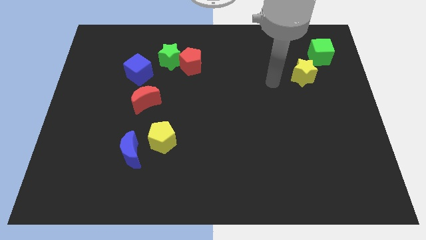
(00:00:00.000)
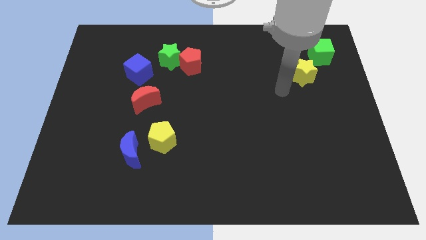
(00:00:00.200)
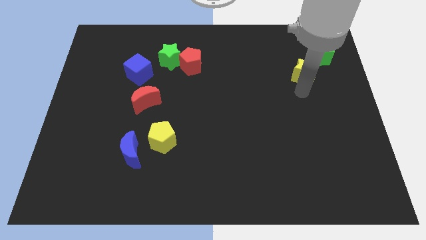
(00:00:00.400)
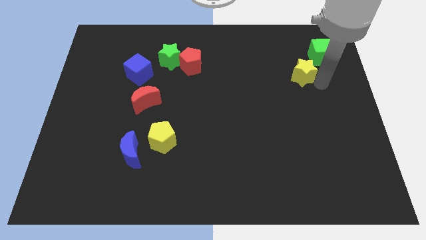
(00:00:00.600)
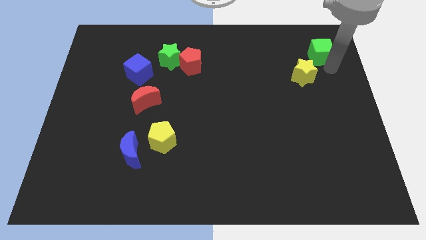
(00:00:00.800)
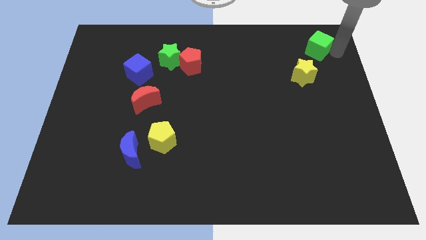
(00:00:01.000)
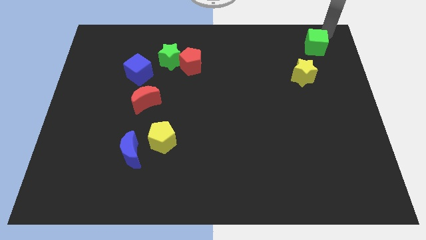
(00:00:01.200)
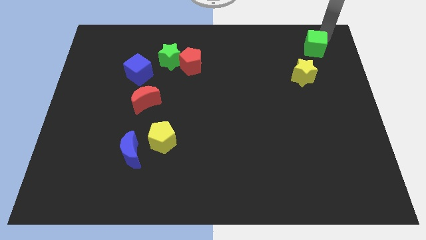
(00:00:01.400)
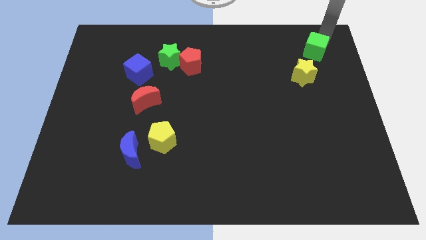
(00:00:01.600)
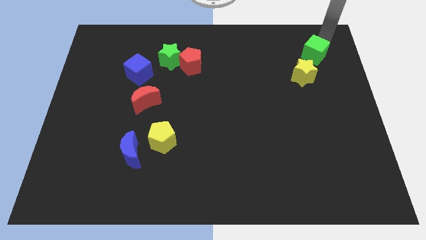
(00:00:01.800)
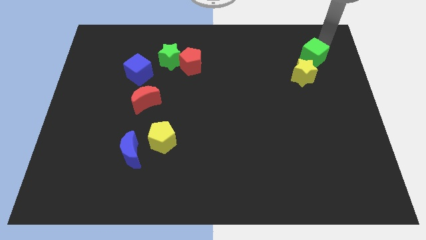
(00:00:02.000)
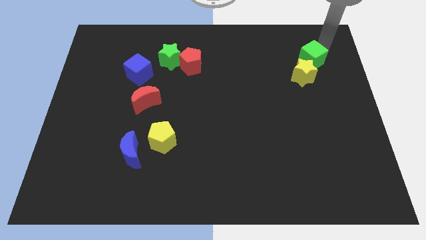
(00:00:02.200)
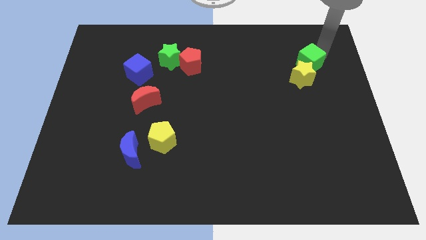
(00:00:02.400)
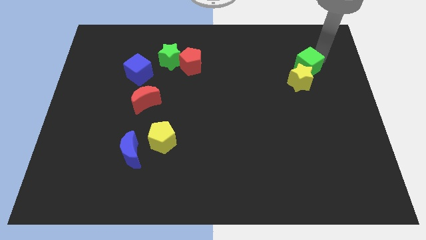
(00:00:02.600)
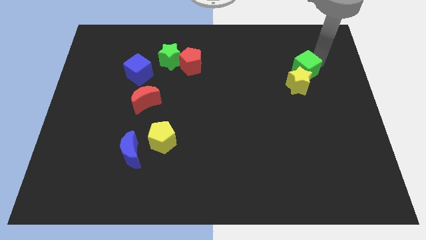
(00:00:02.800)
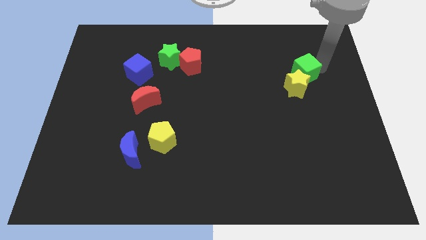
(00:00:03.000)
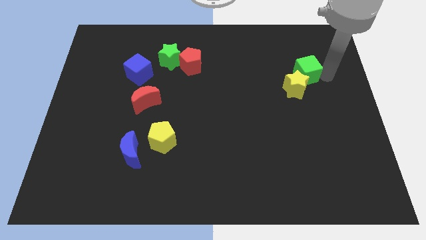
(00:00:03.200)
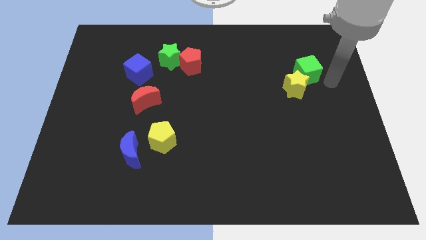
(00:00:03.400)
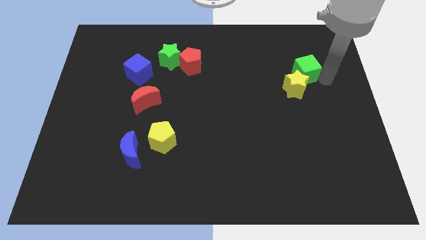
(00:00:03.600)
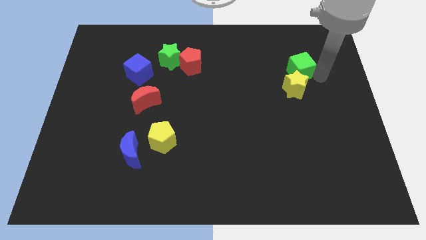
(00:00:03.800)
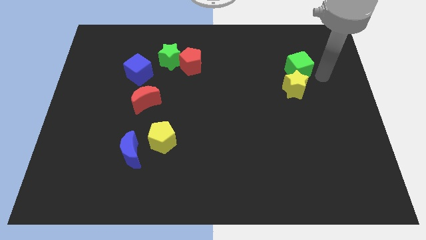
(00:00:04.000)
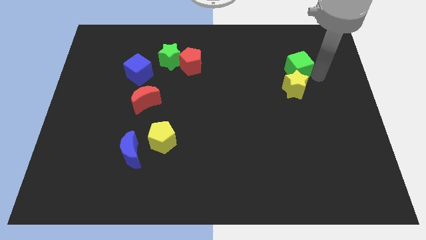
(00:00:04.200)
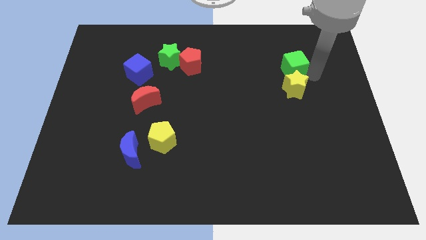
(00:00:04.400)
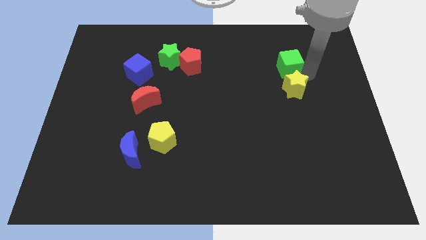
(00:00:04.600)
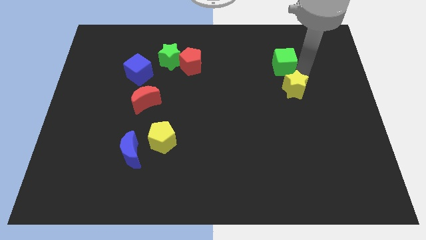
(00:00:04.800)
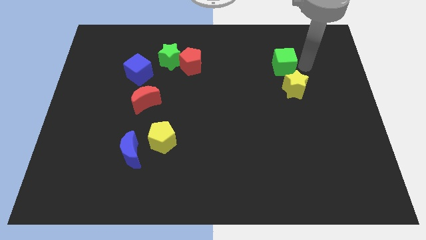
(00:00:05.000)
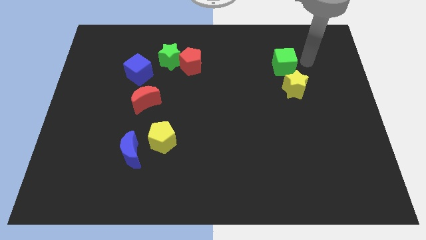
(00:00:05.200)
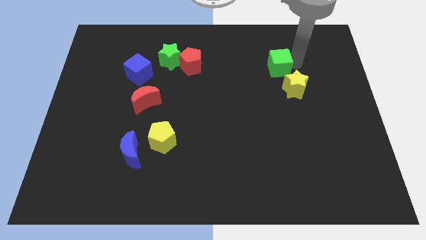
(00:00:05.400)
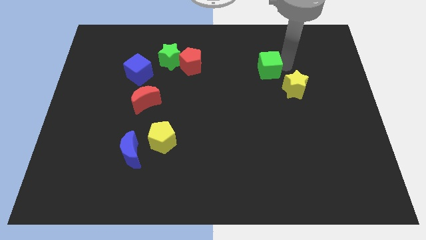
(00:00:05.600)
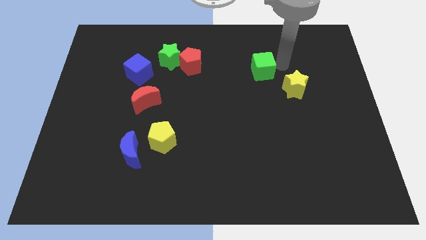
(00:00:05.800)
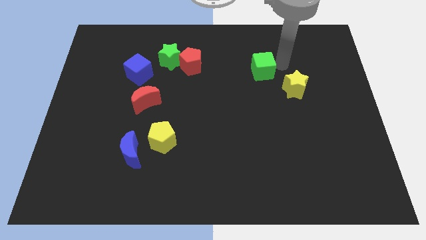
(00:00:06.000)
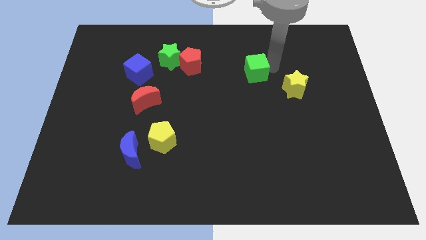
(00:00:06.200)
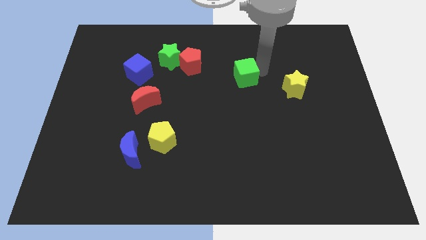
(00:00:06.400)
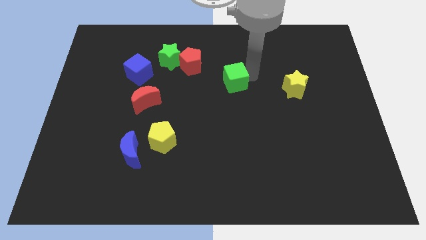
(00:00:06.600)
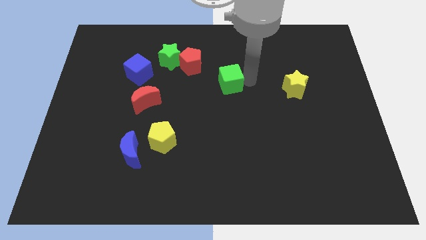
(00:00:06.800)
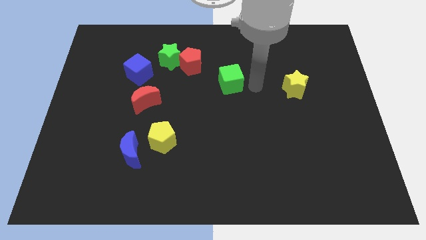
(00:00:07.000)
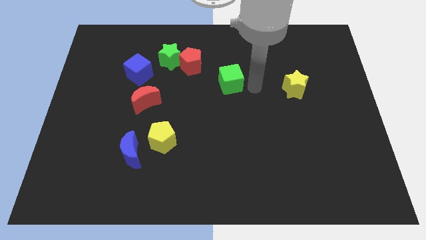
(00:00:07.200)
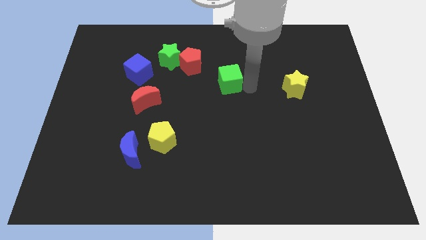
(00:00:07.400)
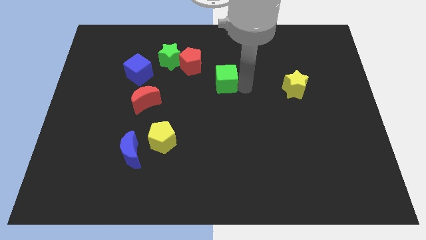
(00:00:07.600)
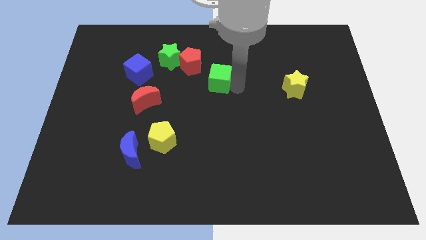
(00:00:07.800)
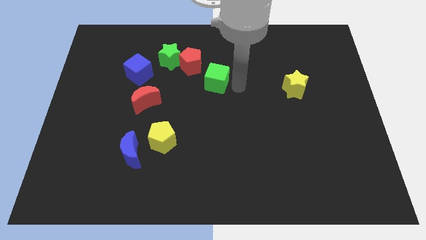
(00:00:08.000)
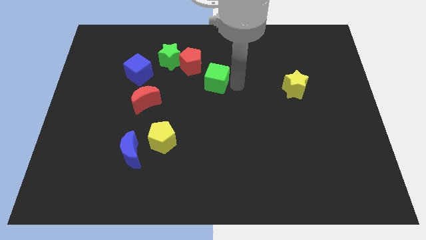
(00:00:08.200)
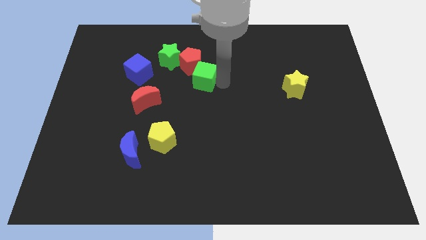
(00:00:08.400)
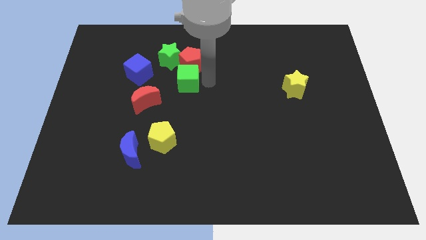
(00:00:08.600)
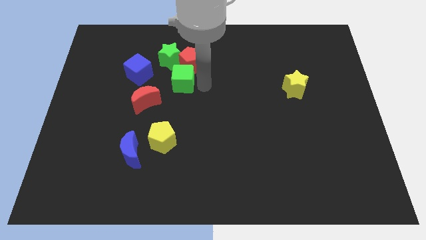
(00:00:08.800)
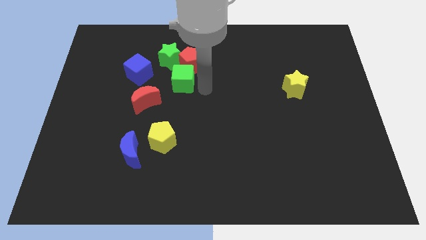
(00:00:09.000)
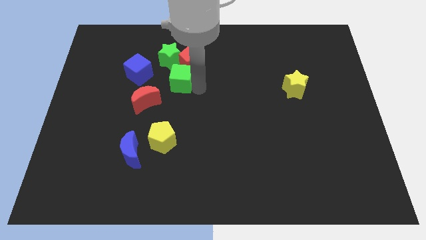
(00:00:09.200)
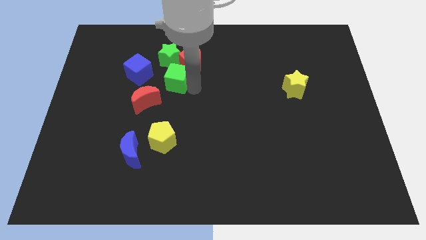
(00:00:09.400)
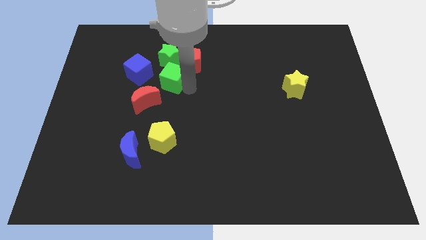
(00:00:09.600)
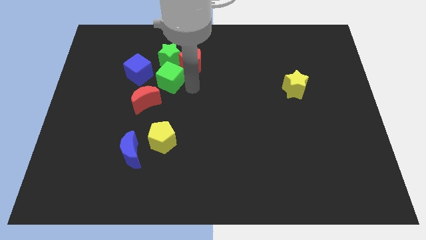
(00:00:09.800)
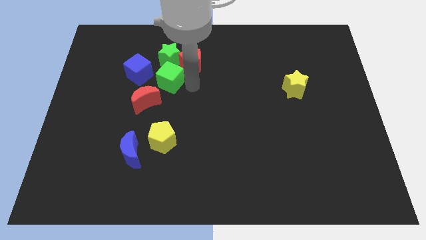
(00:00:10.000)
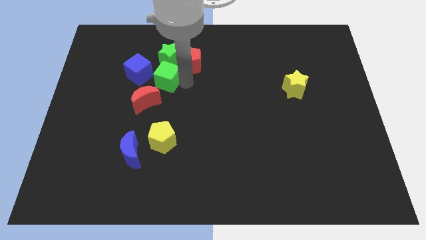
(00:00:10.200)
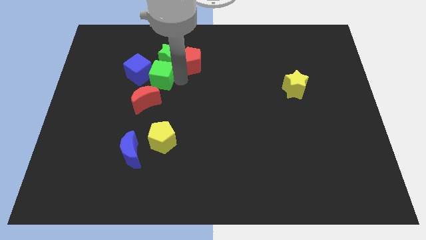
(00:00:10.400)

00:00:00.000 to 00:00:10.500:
slide the green cube close to the blue cube

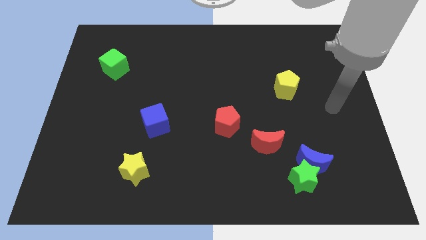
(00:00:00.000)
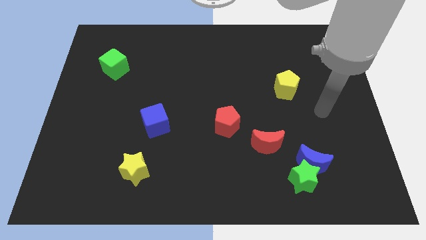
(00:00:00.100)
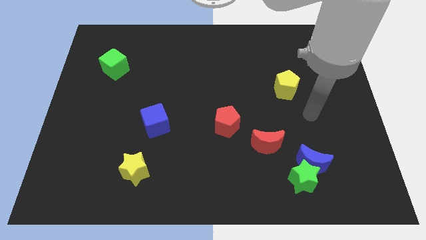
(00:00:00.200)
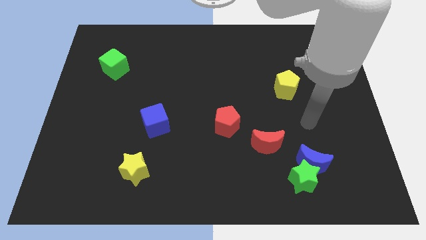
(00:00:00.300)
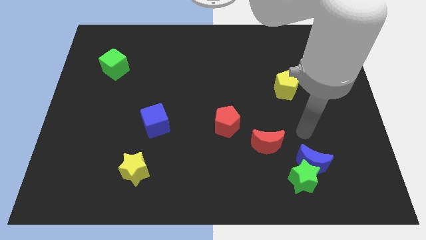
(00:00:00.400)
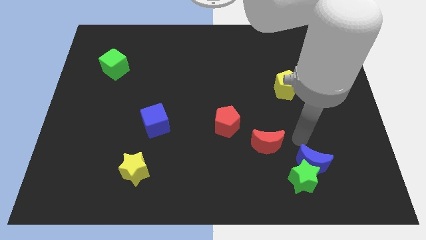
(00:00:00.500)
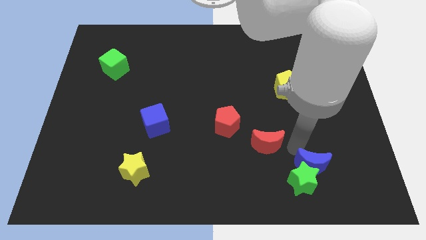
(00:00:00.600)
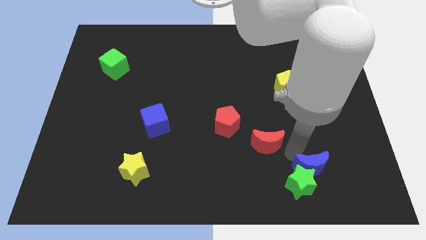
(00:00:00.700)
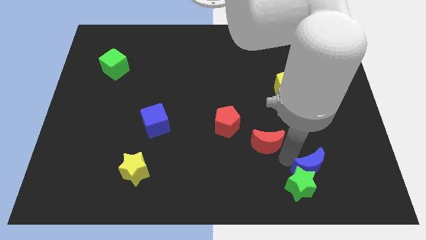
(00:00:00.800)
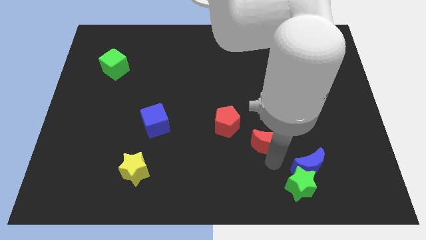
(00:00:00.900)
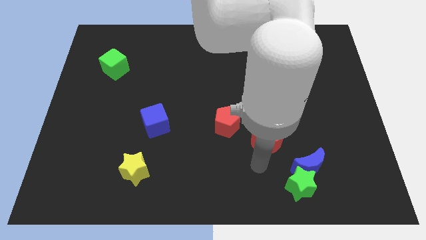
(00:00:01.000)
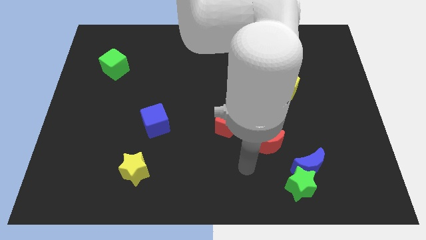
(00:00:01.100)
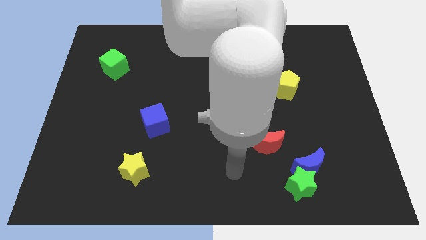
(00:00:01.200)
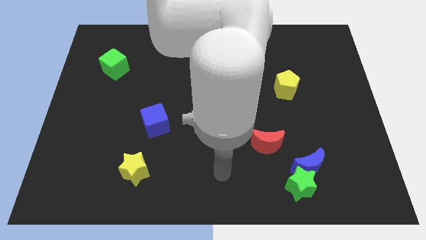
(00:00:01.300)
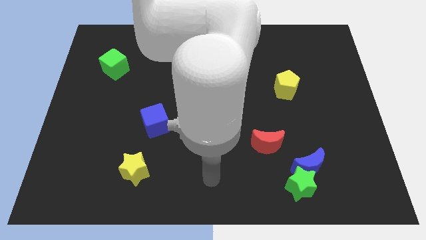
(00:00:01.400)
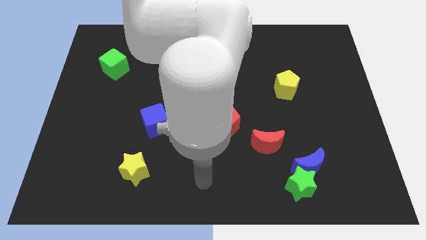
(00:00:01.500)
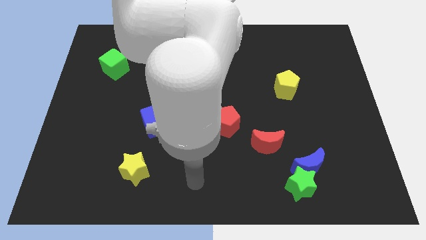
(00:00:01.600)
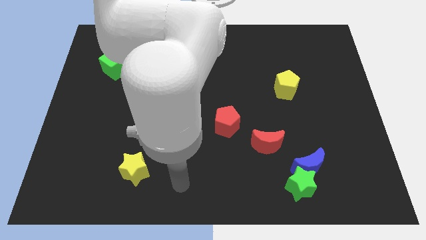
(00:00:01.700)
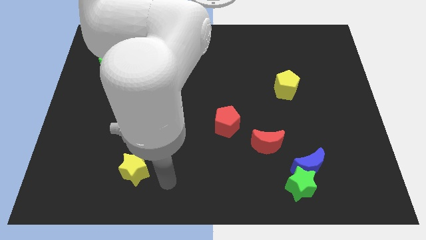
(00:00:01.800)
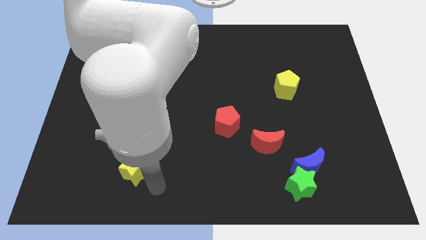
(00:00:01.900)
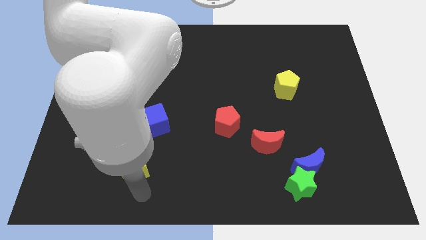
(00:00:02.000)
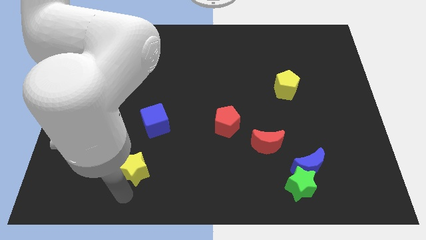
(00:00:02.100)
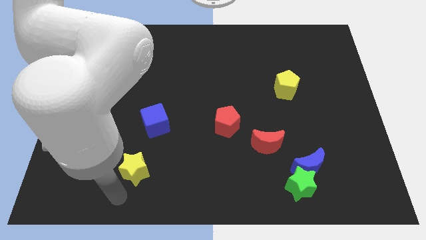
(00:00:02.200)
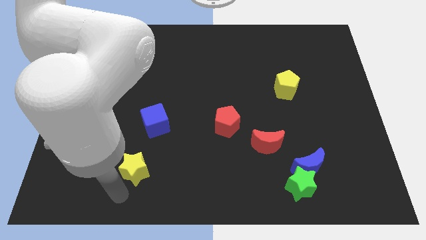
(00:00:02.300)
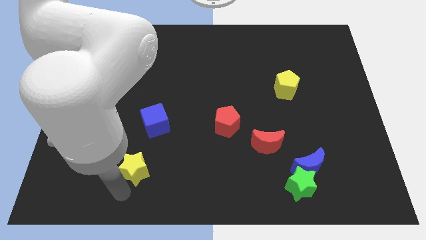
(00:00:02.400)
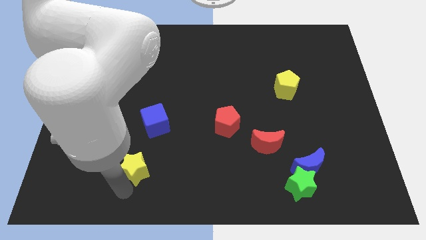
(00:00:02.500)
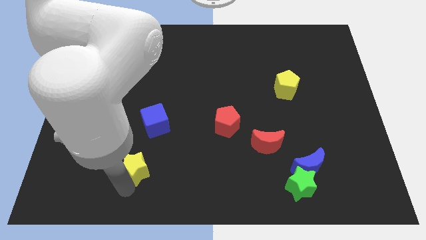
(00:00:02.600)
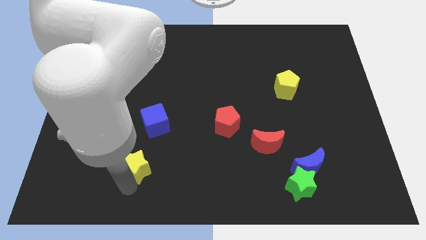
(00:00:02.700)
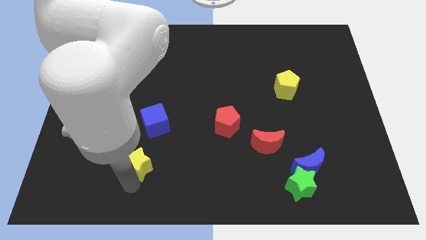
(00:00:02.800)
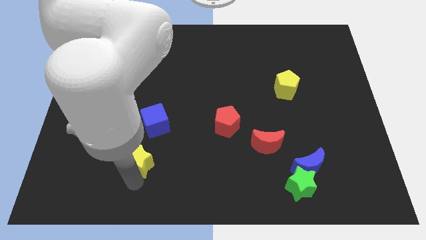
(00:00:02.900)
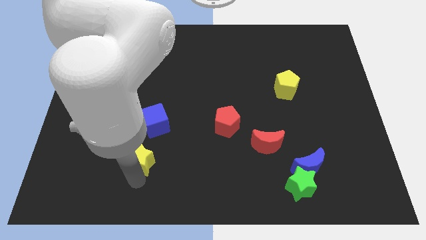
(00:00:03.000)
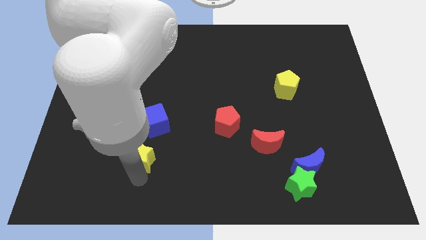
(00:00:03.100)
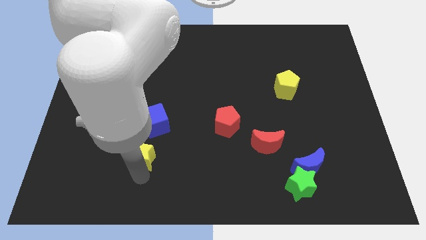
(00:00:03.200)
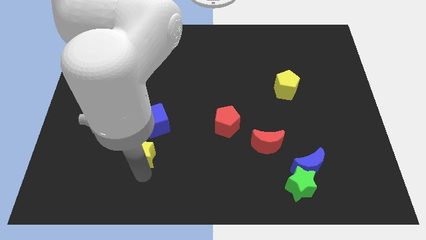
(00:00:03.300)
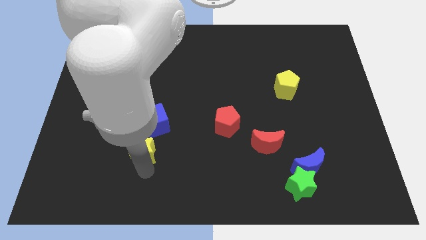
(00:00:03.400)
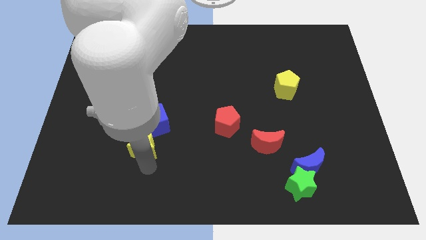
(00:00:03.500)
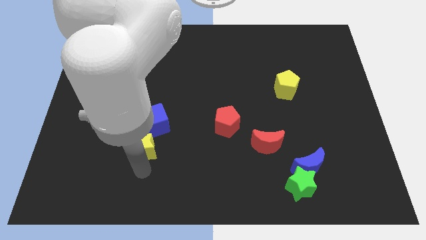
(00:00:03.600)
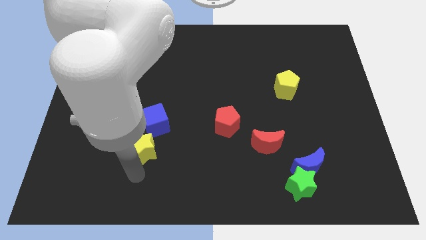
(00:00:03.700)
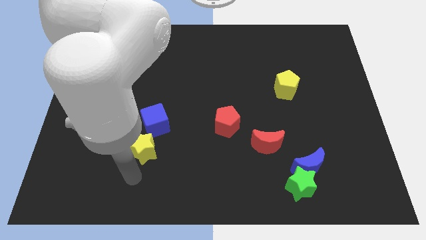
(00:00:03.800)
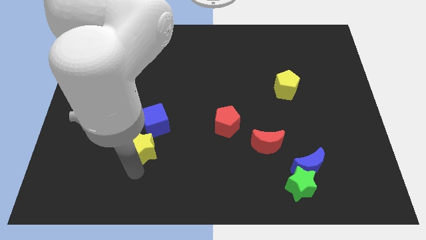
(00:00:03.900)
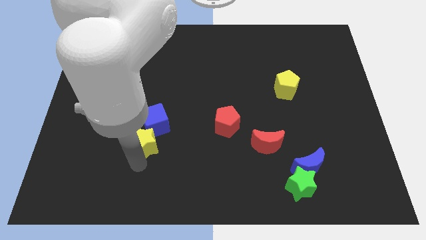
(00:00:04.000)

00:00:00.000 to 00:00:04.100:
put the yellow star to the blue cube
